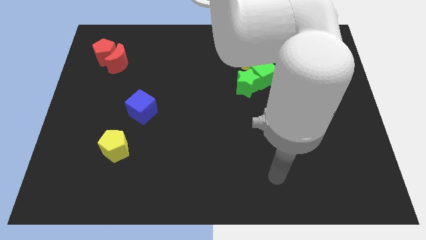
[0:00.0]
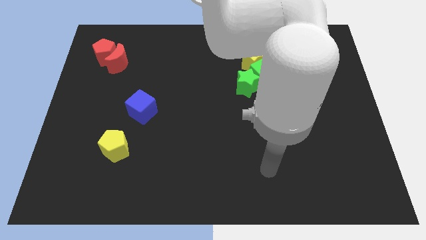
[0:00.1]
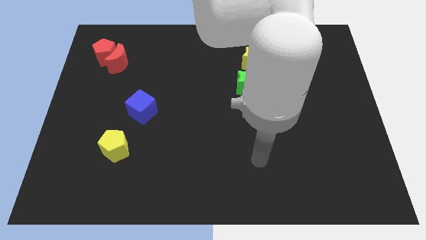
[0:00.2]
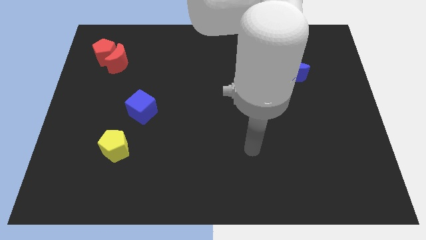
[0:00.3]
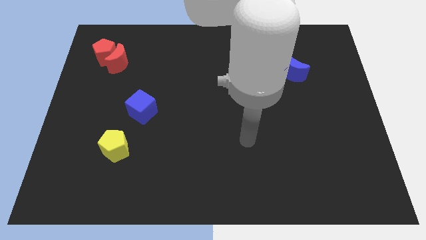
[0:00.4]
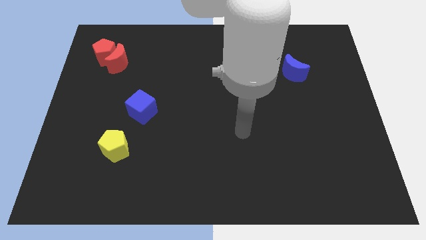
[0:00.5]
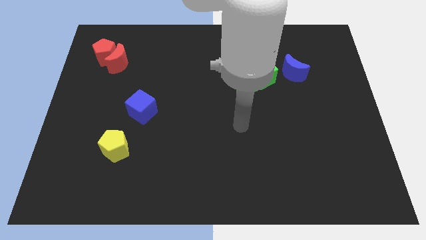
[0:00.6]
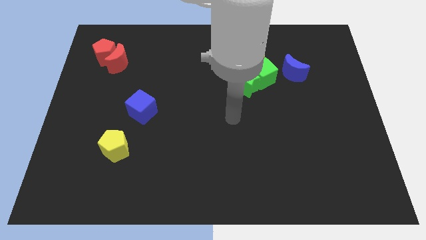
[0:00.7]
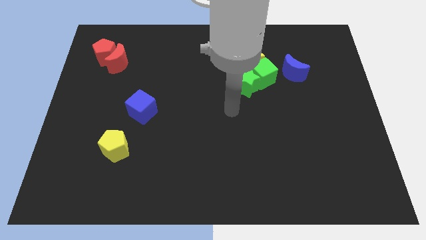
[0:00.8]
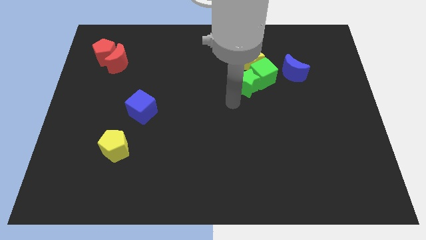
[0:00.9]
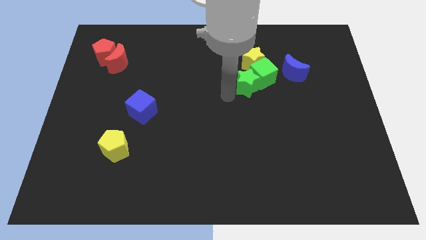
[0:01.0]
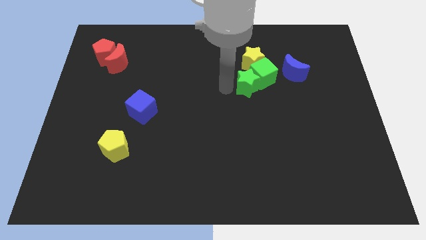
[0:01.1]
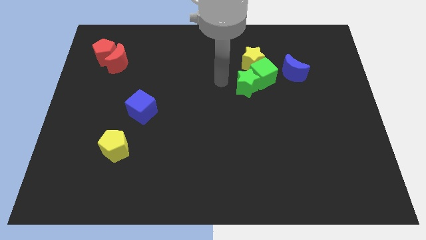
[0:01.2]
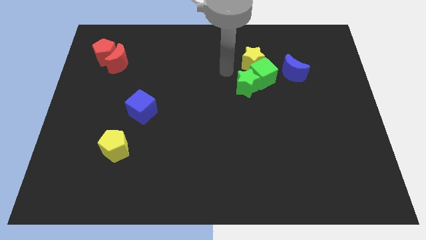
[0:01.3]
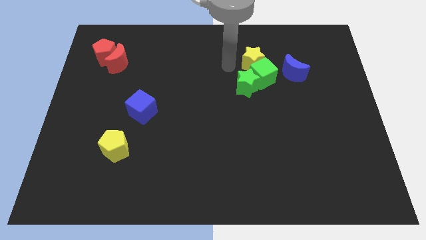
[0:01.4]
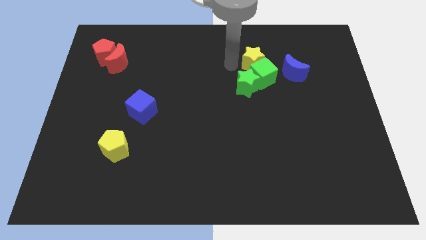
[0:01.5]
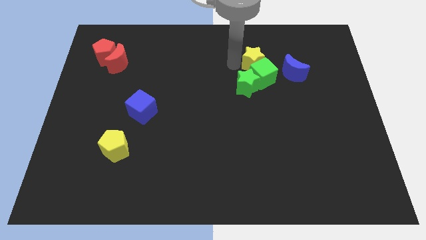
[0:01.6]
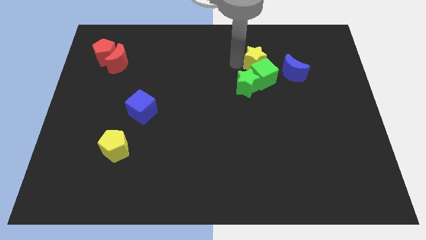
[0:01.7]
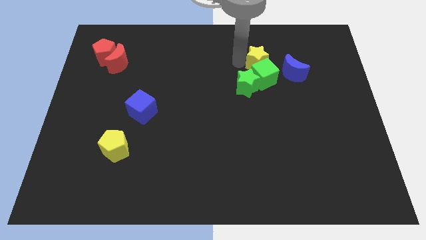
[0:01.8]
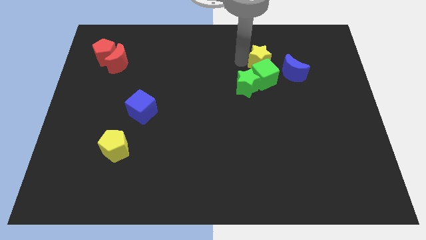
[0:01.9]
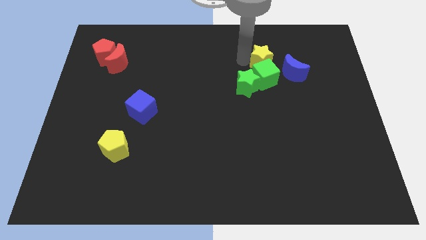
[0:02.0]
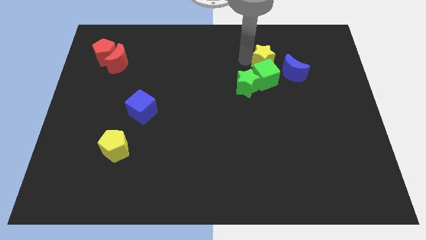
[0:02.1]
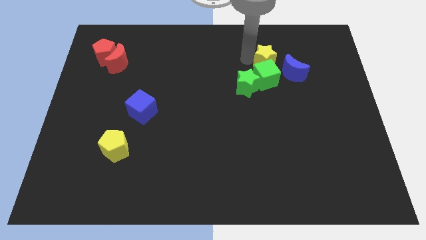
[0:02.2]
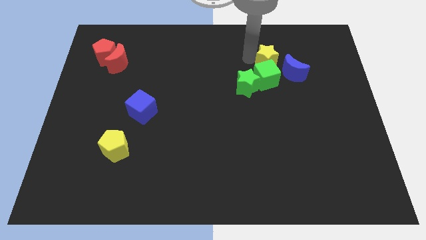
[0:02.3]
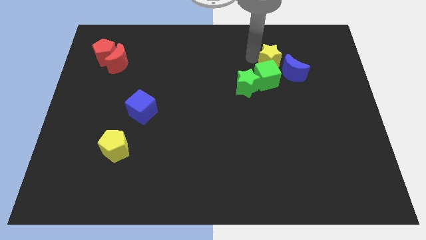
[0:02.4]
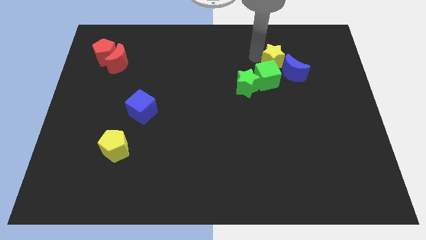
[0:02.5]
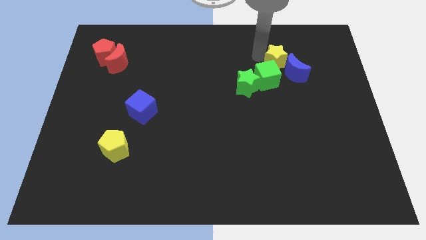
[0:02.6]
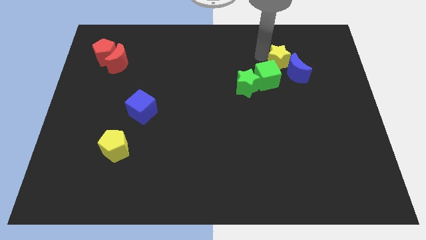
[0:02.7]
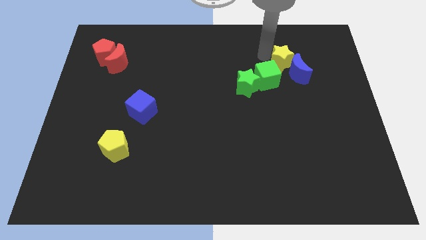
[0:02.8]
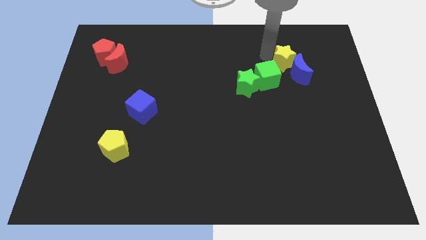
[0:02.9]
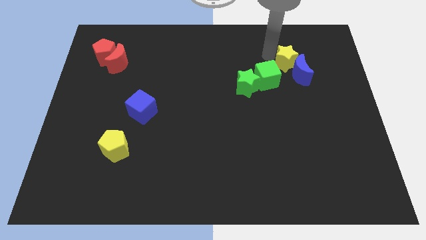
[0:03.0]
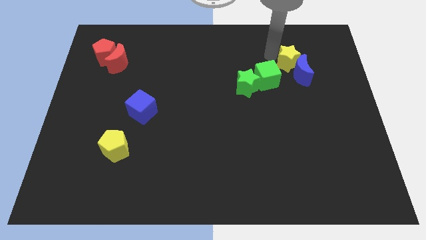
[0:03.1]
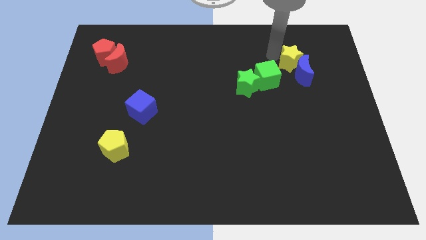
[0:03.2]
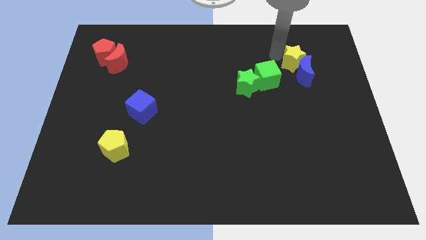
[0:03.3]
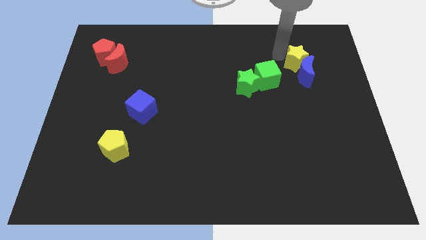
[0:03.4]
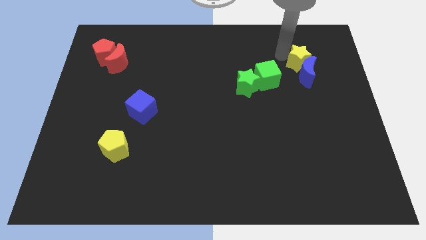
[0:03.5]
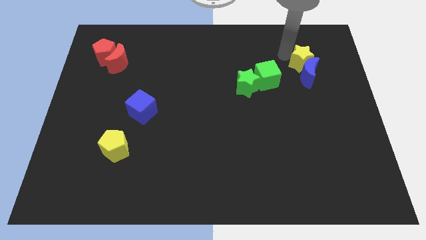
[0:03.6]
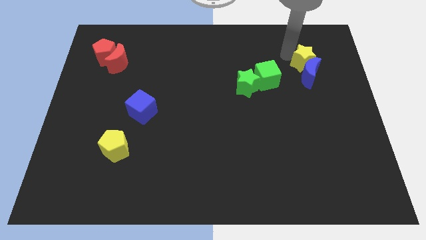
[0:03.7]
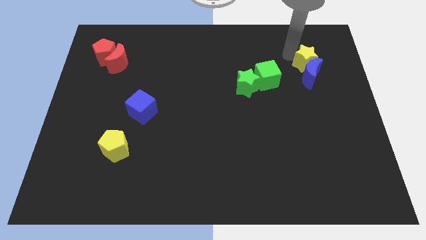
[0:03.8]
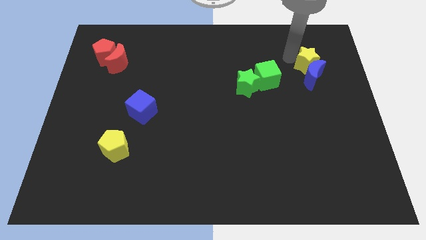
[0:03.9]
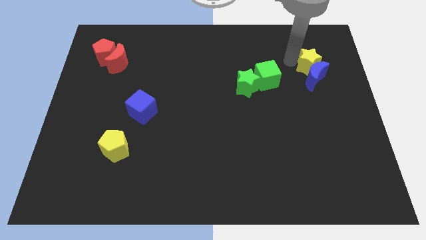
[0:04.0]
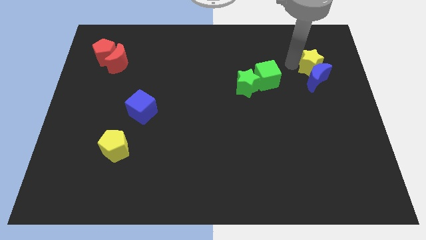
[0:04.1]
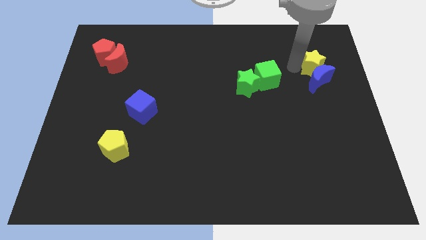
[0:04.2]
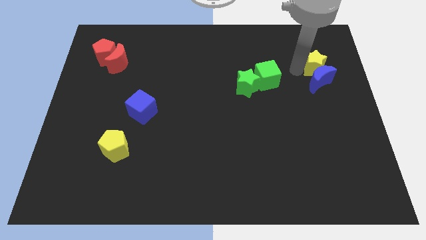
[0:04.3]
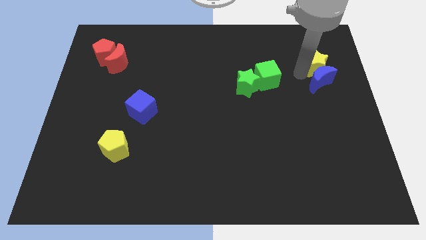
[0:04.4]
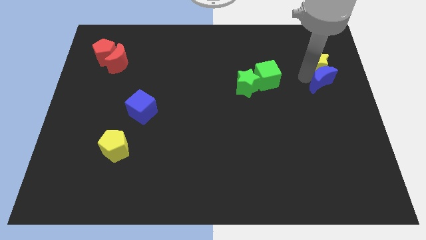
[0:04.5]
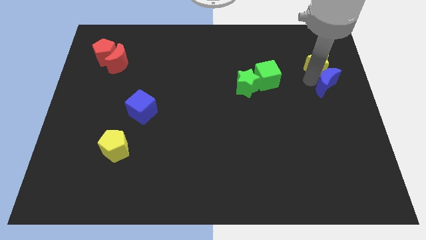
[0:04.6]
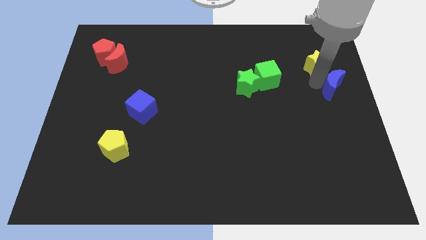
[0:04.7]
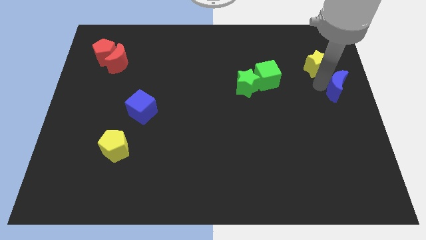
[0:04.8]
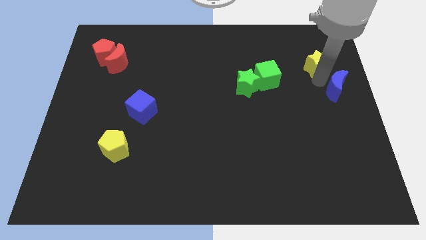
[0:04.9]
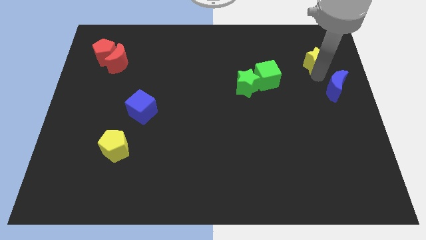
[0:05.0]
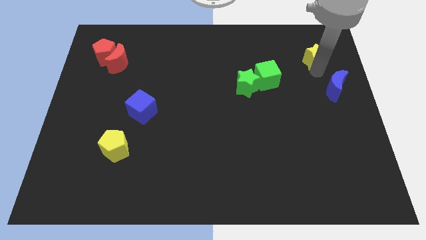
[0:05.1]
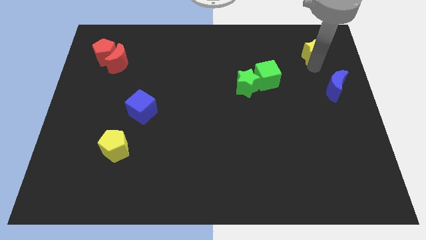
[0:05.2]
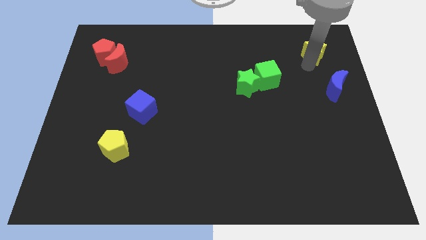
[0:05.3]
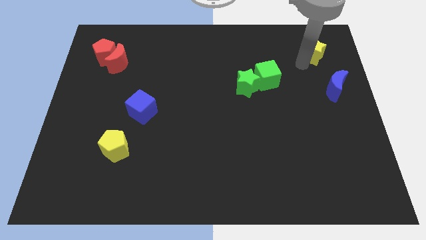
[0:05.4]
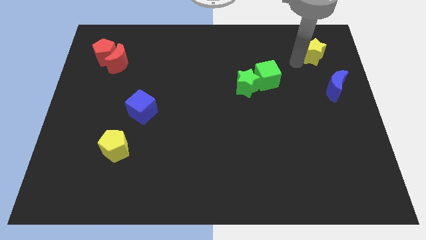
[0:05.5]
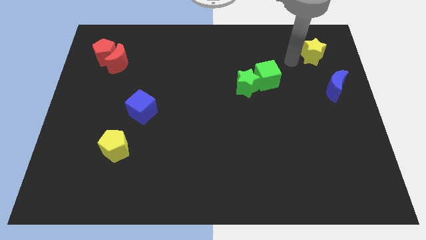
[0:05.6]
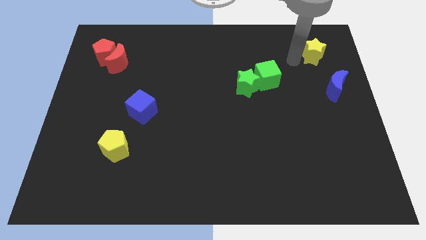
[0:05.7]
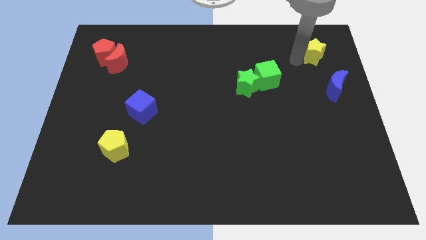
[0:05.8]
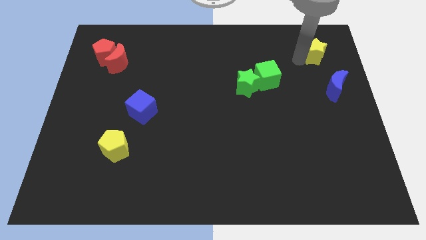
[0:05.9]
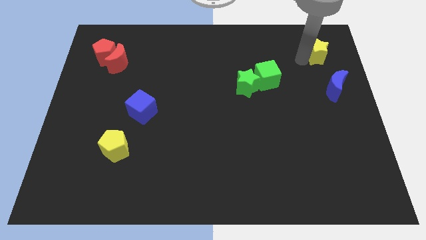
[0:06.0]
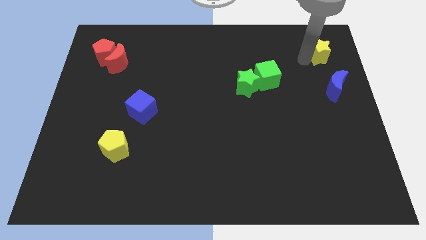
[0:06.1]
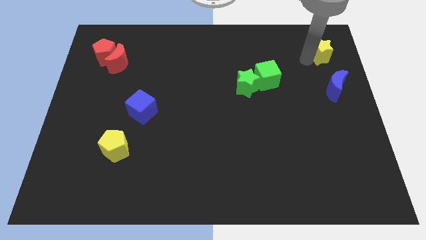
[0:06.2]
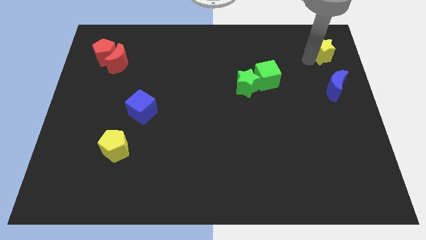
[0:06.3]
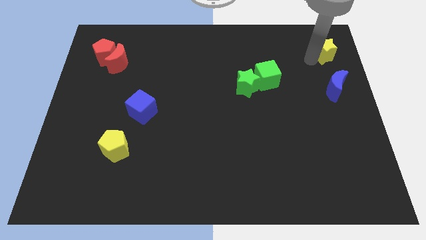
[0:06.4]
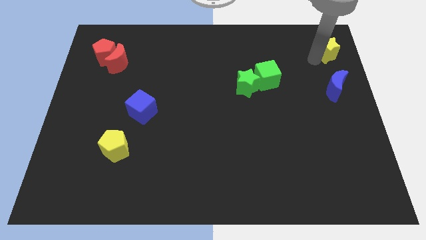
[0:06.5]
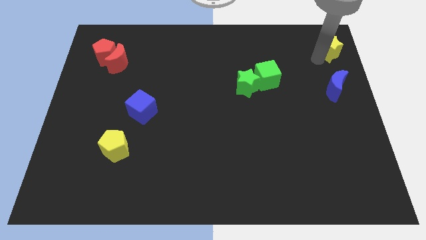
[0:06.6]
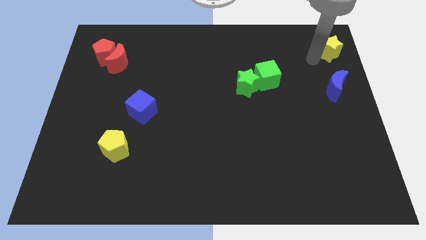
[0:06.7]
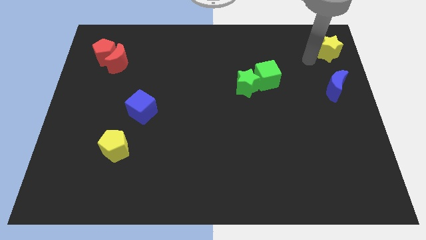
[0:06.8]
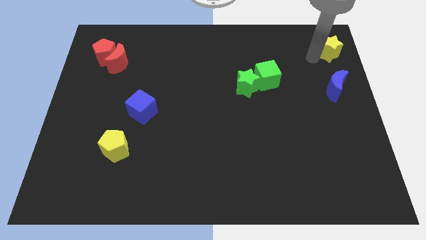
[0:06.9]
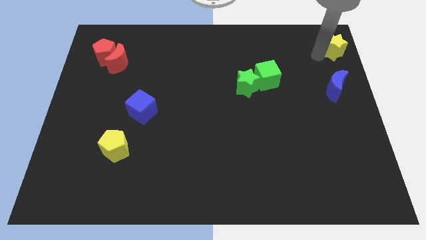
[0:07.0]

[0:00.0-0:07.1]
move the yellow star to the top right
